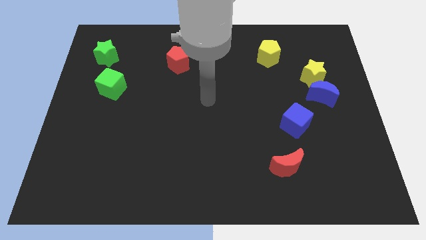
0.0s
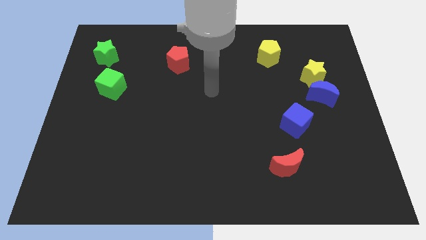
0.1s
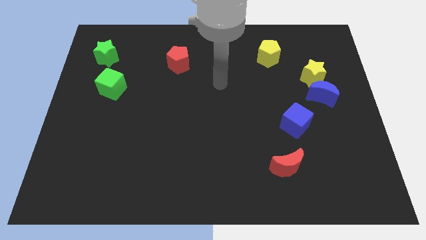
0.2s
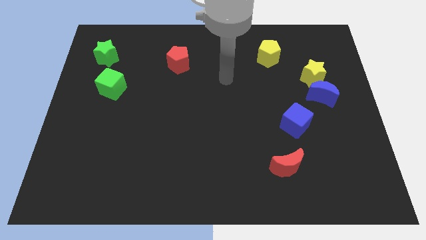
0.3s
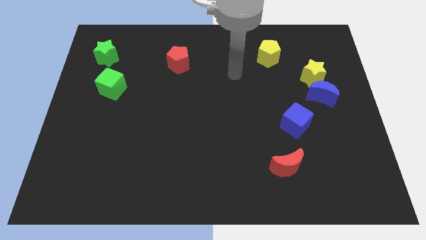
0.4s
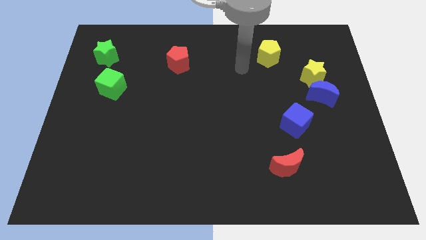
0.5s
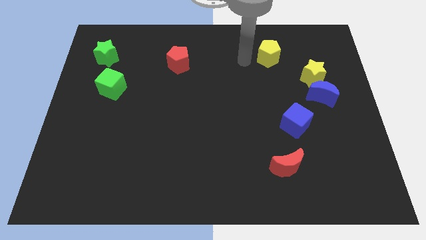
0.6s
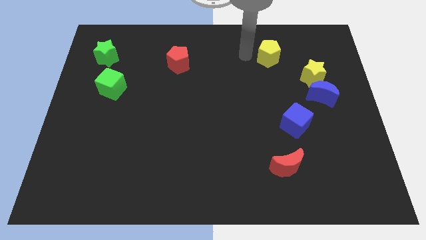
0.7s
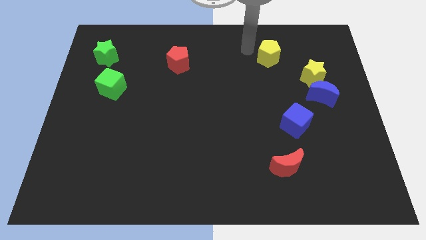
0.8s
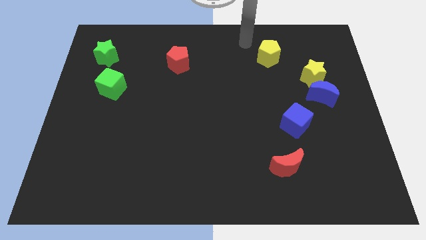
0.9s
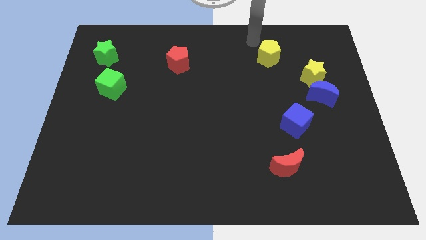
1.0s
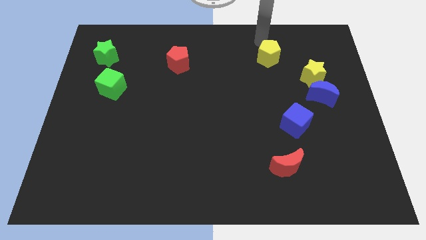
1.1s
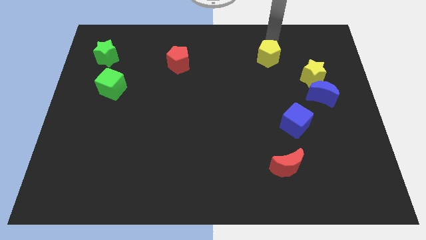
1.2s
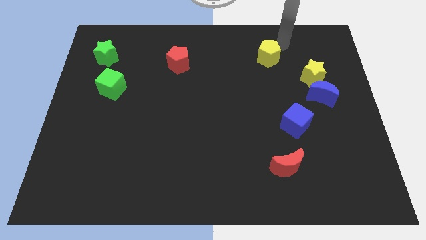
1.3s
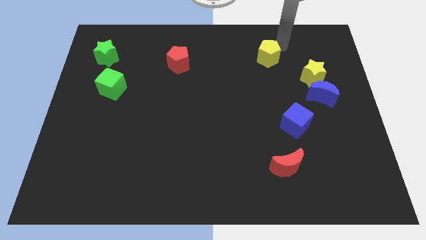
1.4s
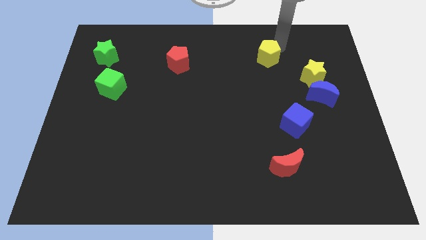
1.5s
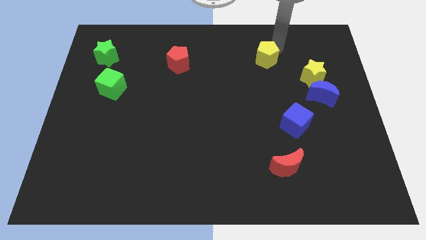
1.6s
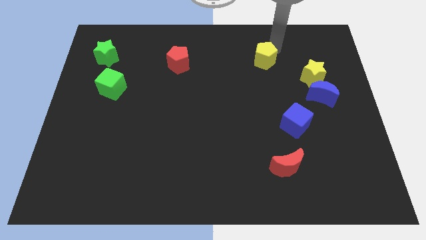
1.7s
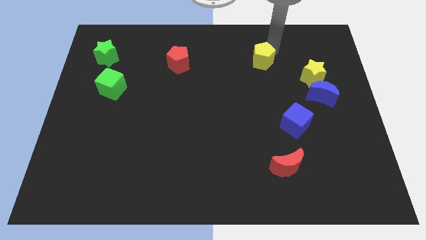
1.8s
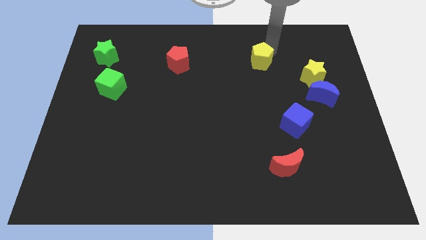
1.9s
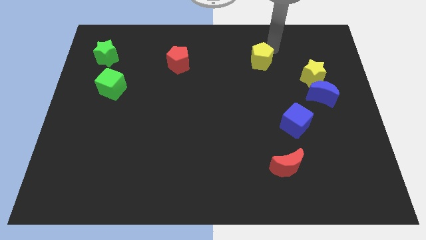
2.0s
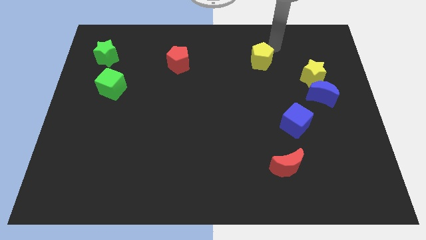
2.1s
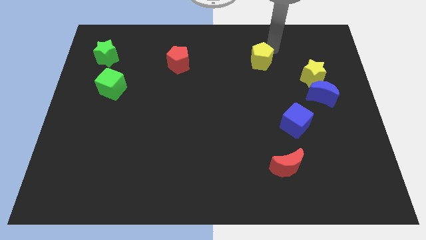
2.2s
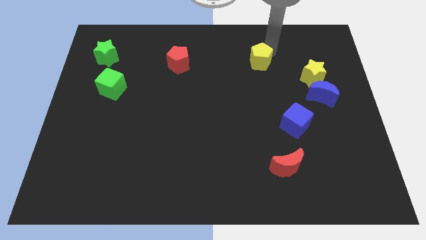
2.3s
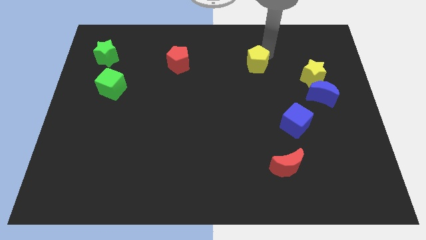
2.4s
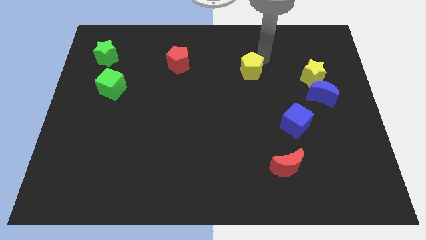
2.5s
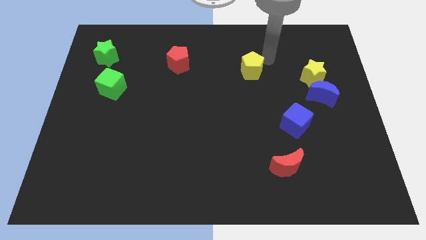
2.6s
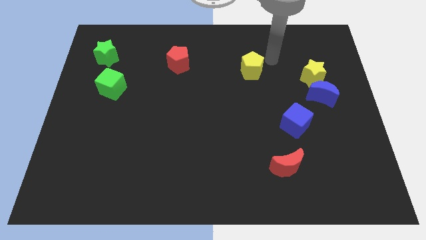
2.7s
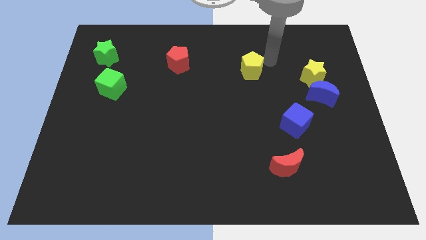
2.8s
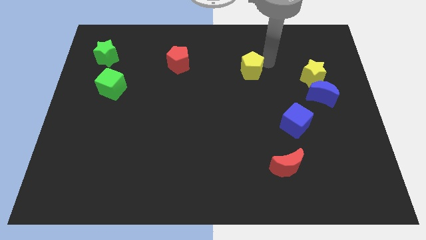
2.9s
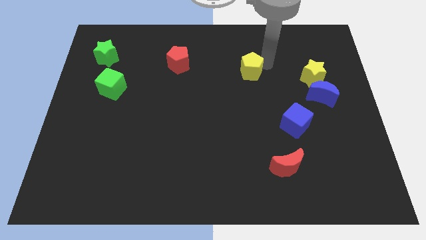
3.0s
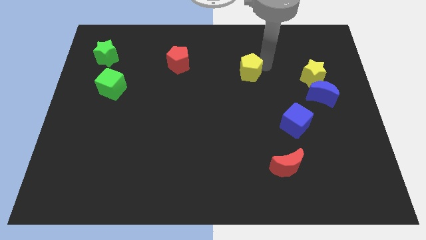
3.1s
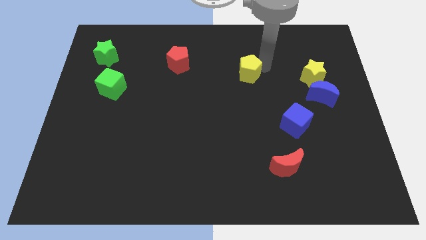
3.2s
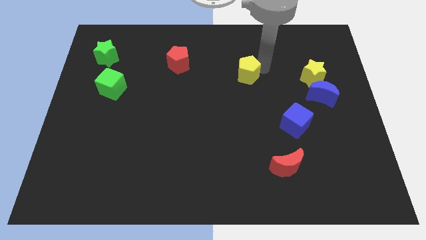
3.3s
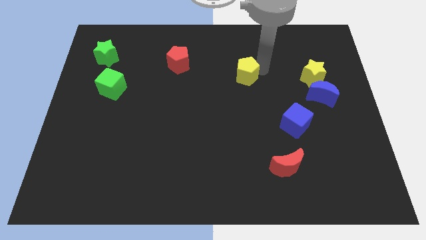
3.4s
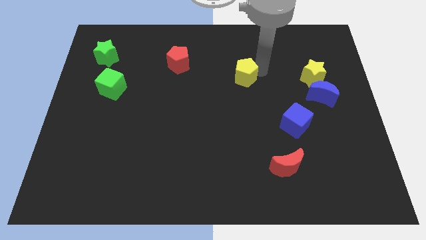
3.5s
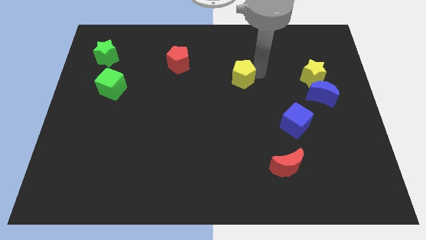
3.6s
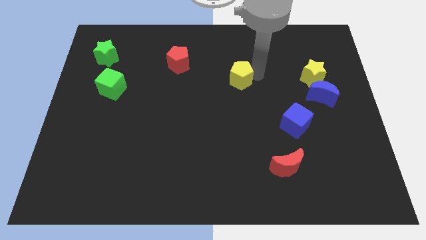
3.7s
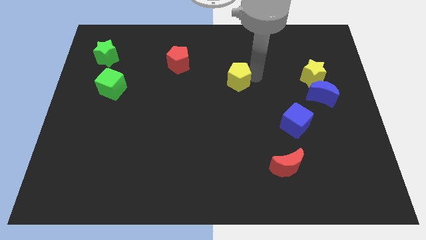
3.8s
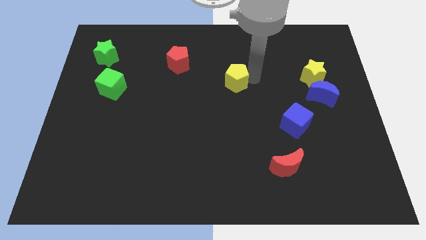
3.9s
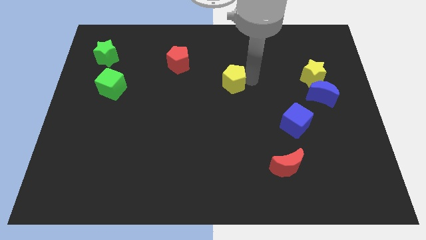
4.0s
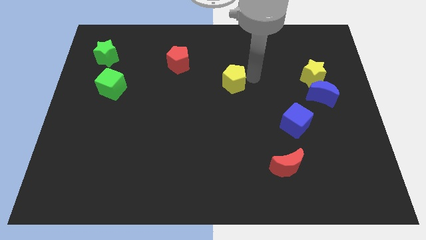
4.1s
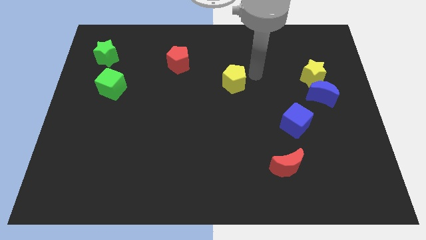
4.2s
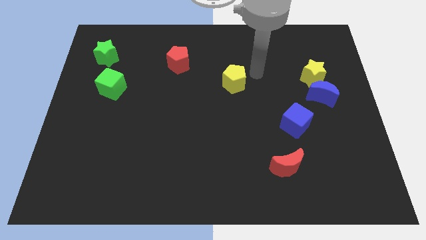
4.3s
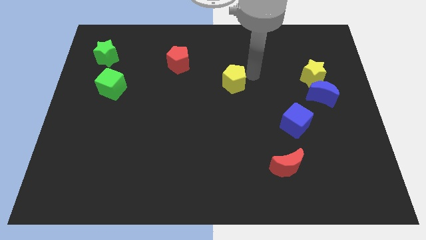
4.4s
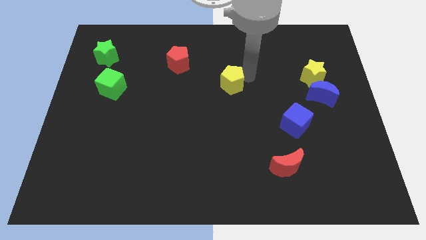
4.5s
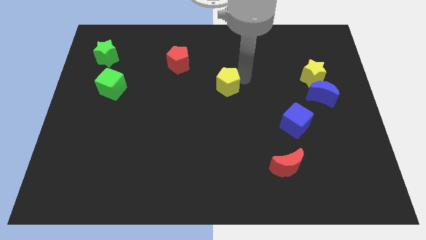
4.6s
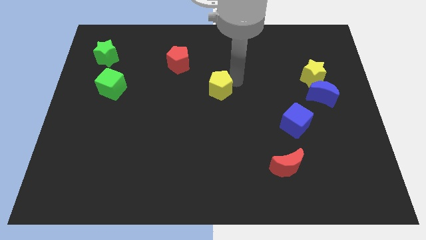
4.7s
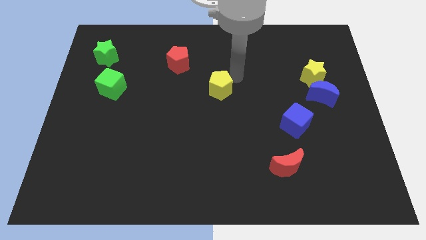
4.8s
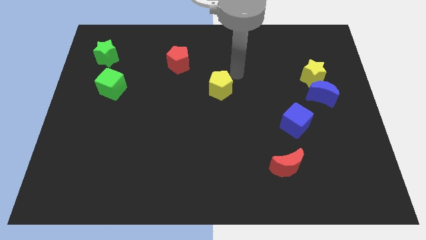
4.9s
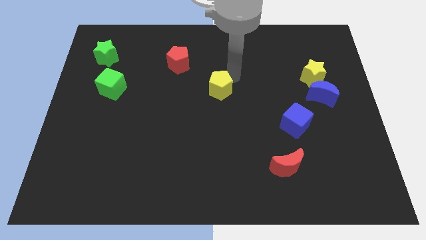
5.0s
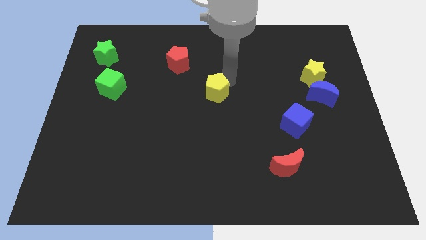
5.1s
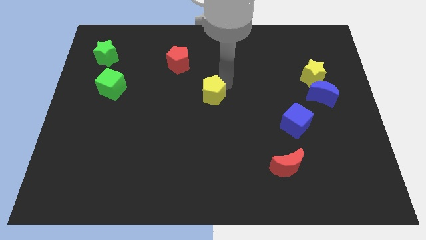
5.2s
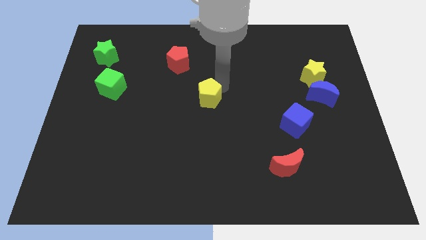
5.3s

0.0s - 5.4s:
push the yellow pentagon diagonally down and left

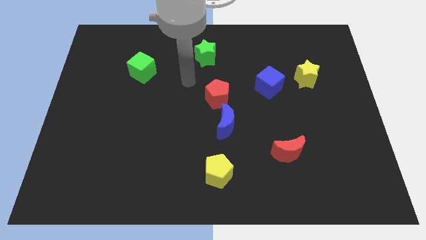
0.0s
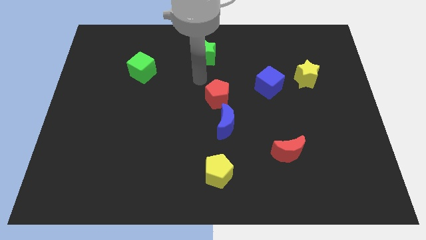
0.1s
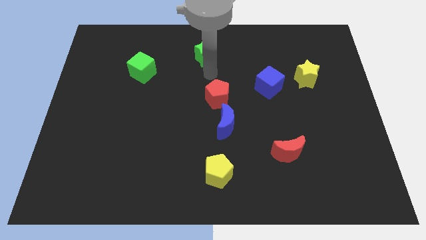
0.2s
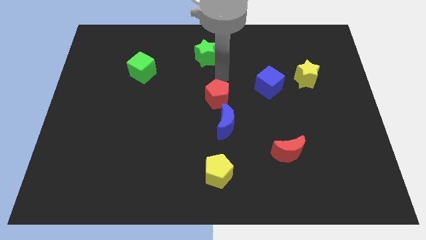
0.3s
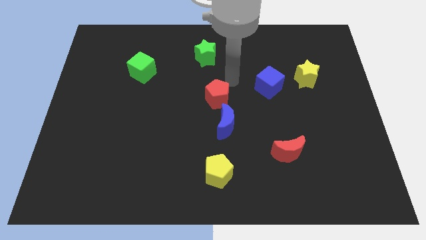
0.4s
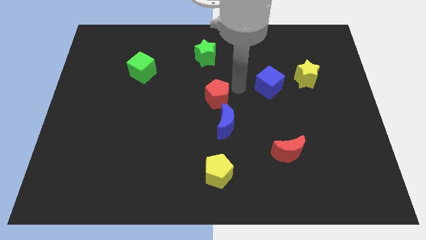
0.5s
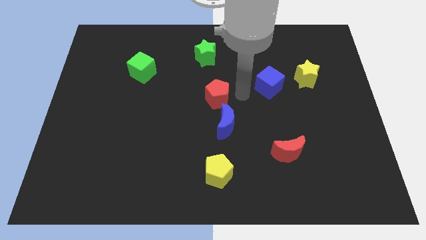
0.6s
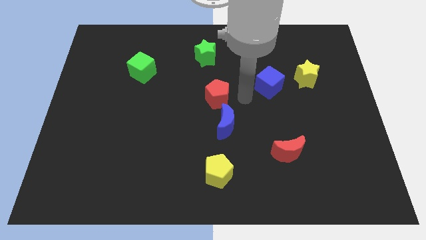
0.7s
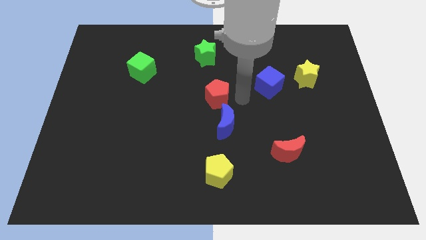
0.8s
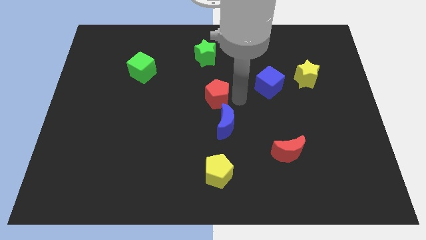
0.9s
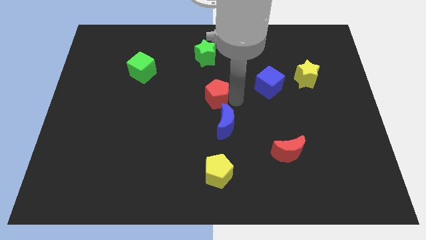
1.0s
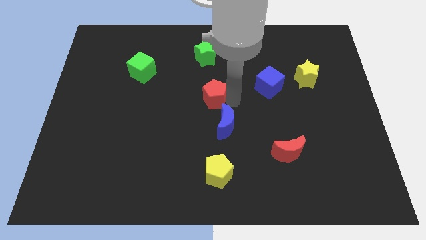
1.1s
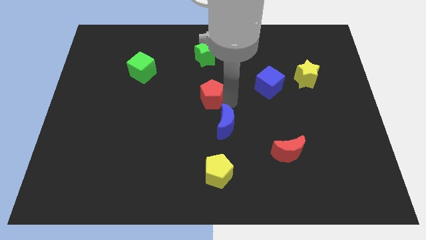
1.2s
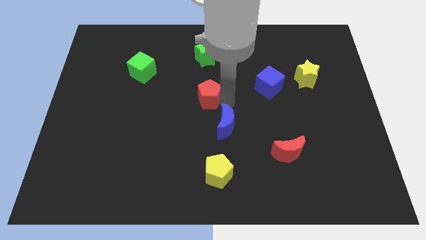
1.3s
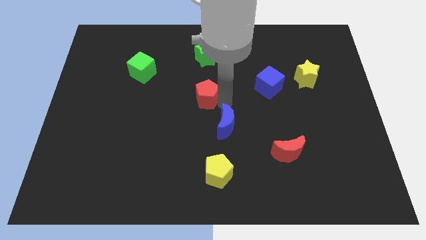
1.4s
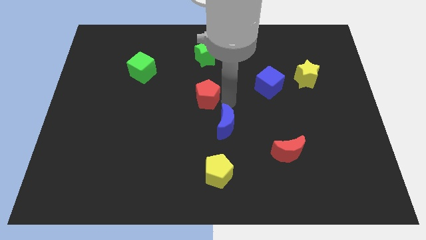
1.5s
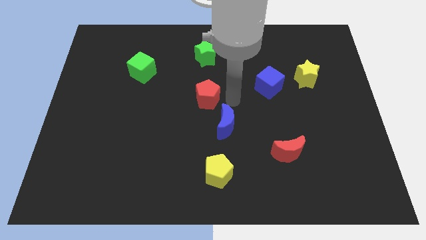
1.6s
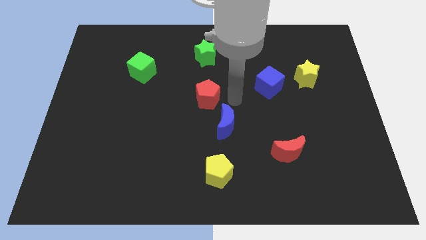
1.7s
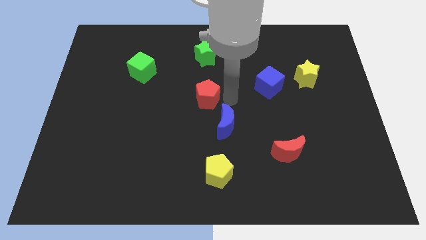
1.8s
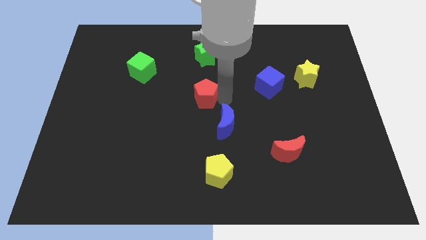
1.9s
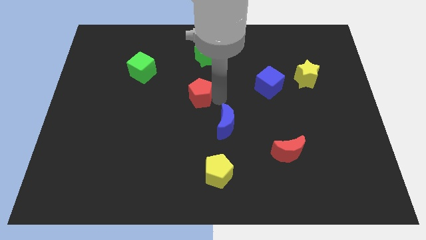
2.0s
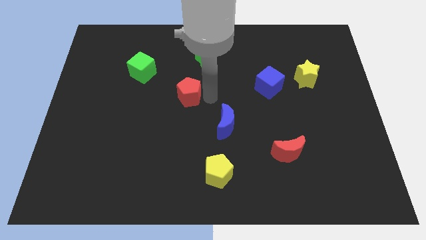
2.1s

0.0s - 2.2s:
slightly push the red pentagon left

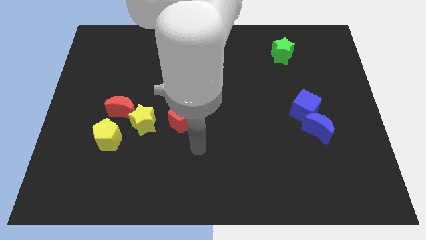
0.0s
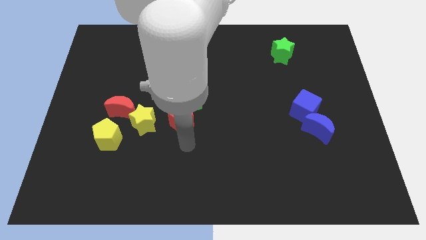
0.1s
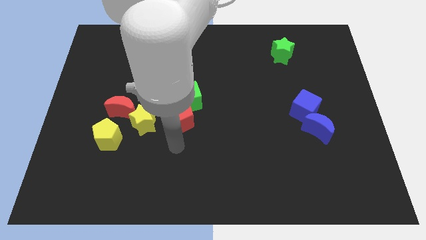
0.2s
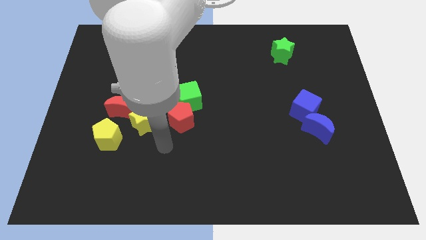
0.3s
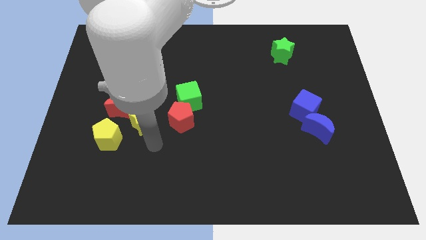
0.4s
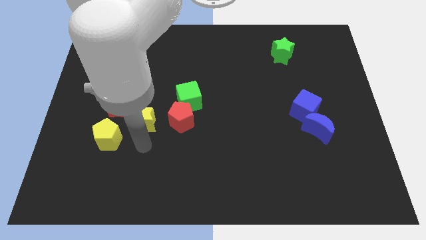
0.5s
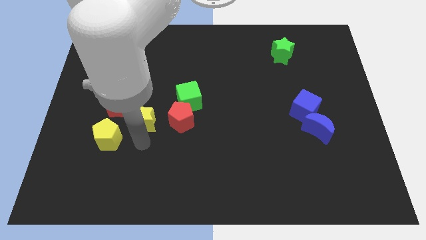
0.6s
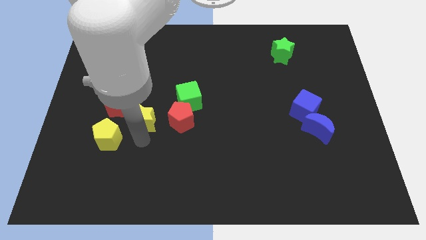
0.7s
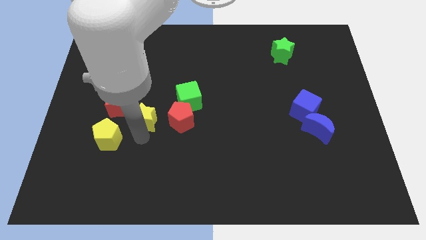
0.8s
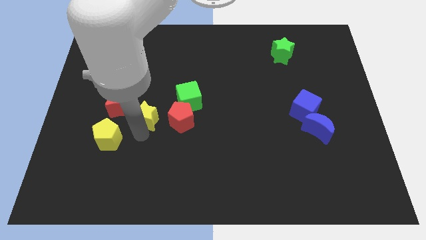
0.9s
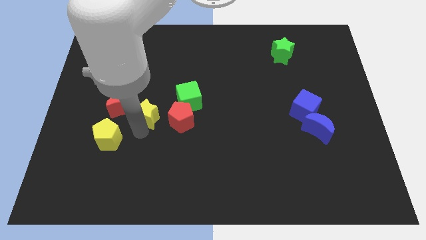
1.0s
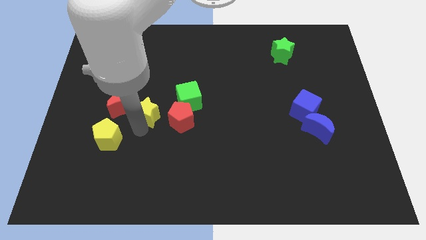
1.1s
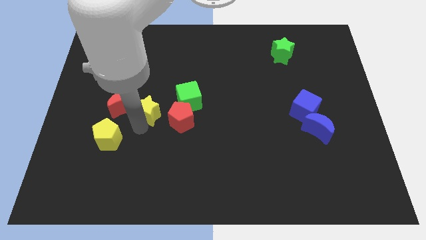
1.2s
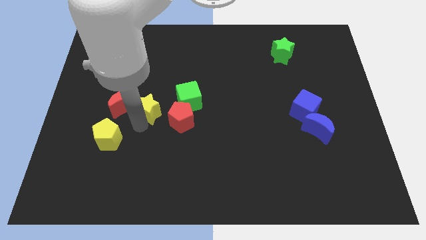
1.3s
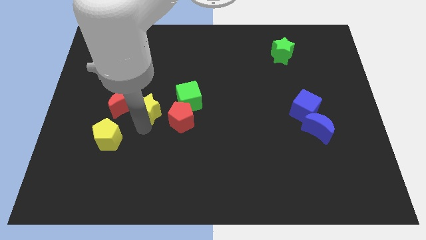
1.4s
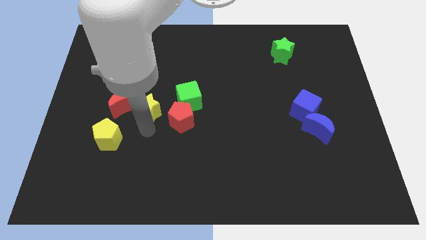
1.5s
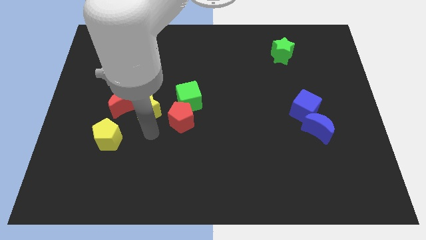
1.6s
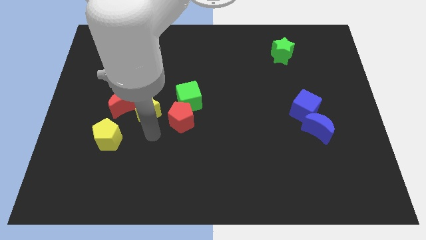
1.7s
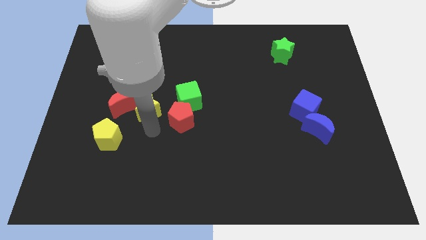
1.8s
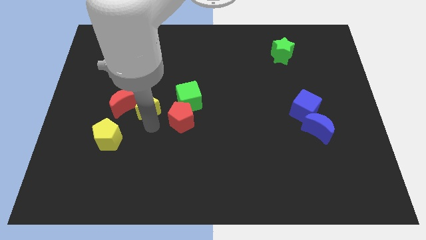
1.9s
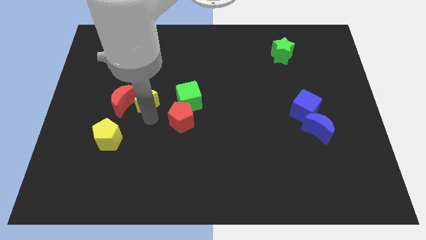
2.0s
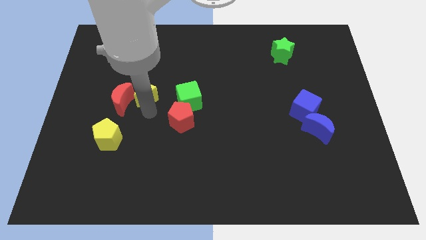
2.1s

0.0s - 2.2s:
slide the yellow star upwards a bit
